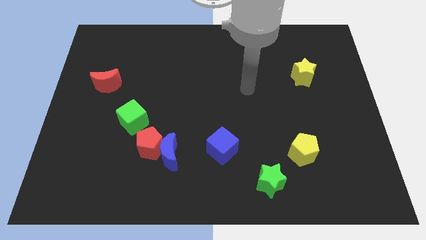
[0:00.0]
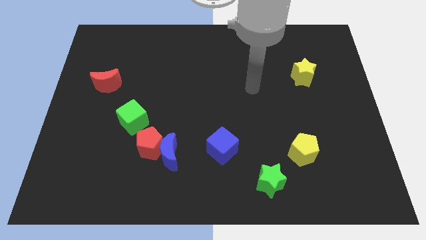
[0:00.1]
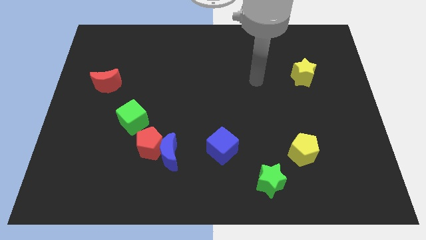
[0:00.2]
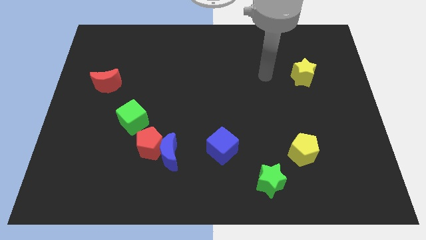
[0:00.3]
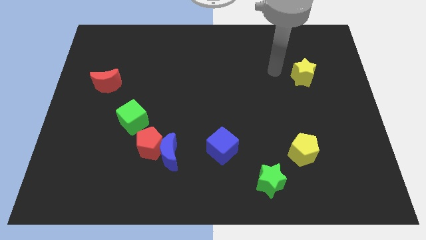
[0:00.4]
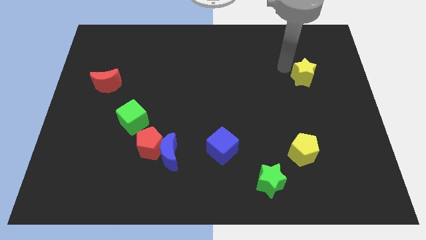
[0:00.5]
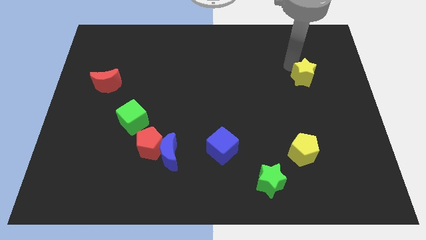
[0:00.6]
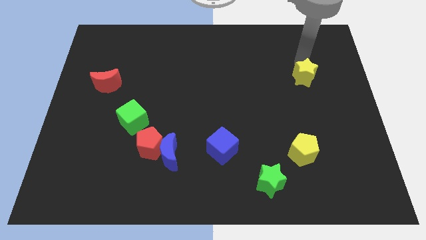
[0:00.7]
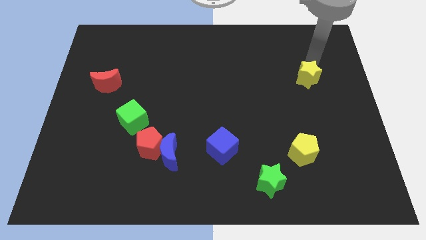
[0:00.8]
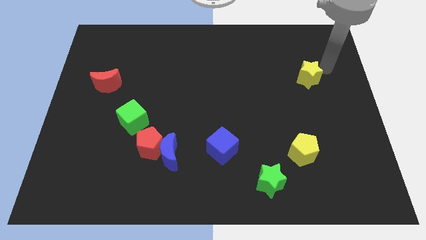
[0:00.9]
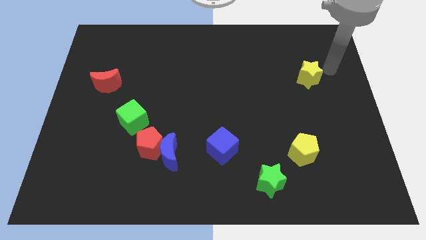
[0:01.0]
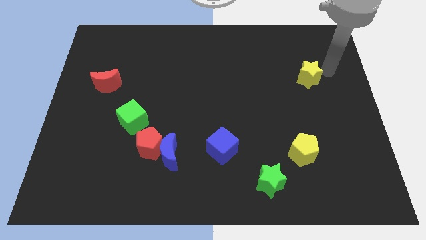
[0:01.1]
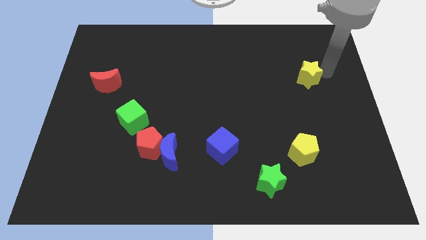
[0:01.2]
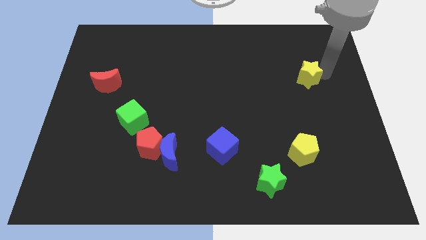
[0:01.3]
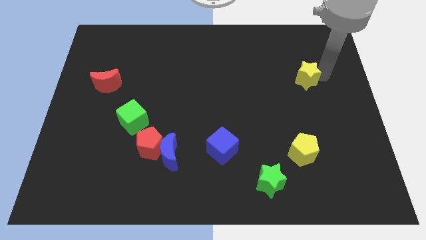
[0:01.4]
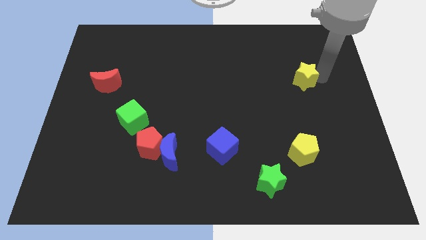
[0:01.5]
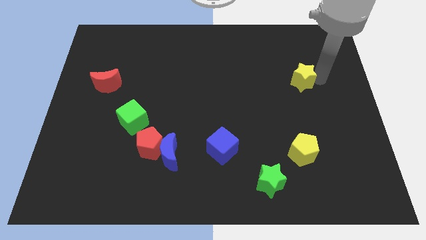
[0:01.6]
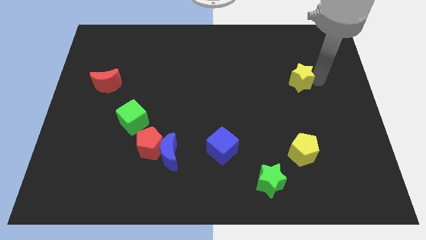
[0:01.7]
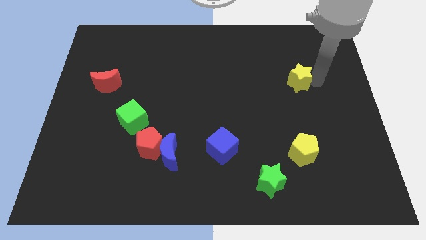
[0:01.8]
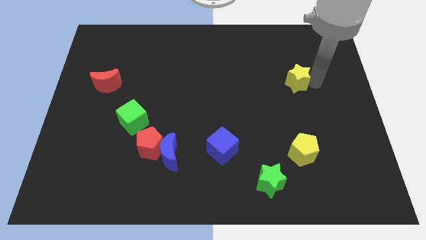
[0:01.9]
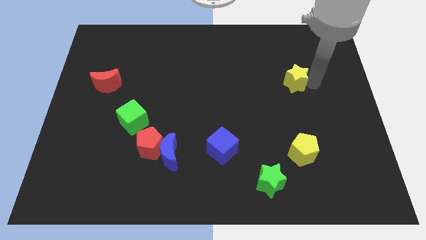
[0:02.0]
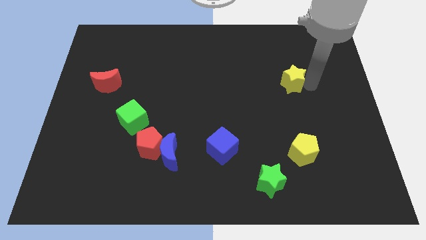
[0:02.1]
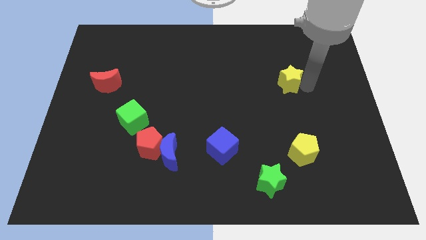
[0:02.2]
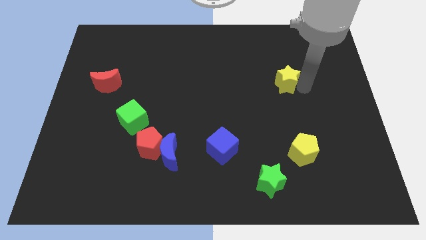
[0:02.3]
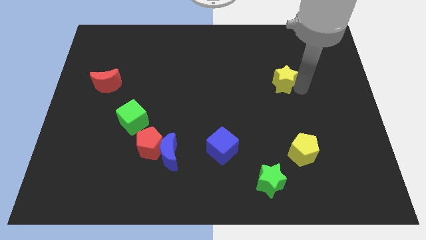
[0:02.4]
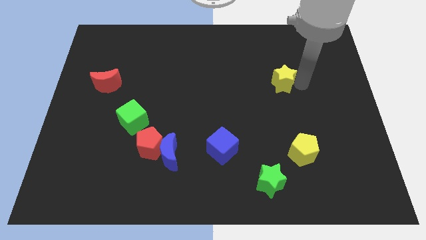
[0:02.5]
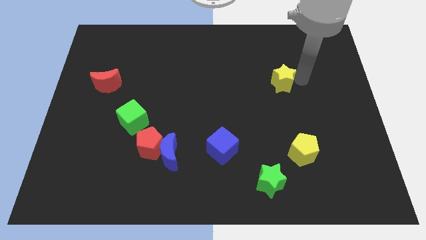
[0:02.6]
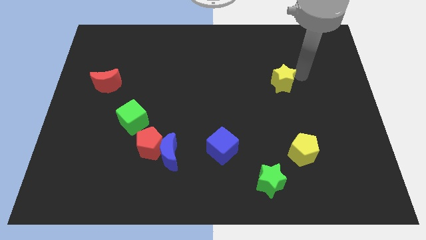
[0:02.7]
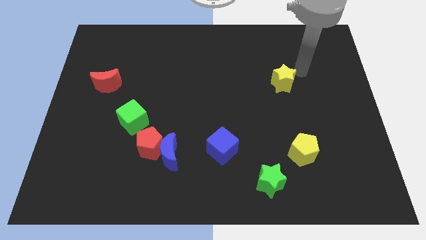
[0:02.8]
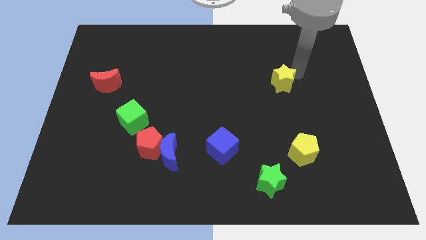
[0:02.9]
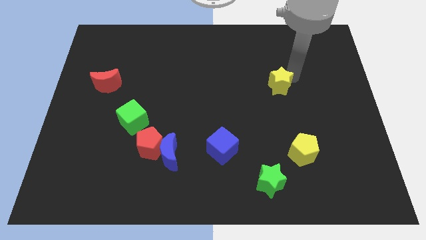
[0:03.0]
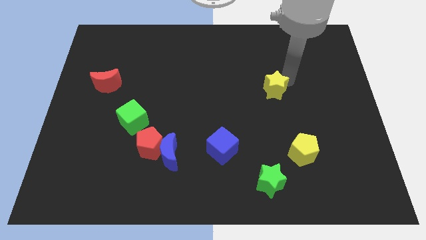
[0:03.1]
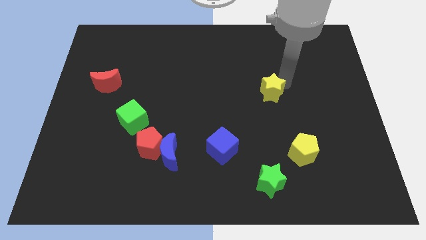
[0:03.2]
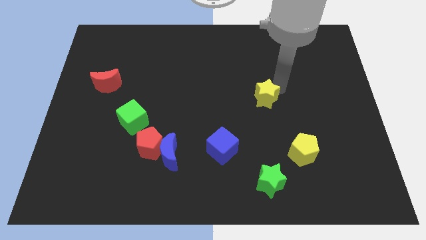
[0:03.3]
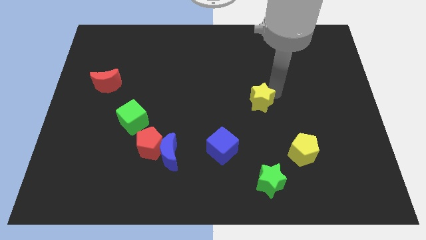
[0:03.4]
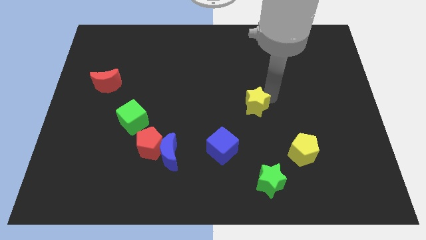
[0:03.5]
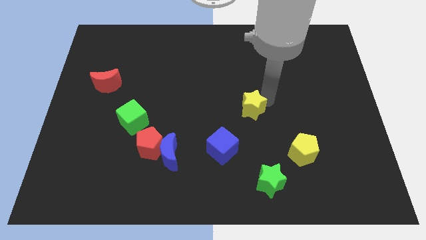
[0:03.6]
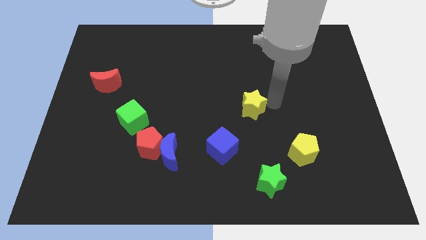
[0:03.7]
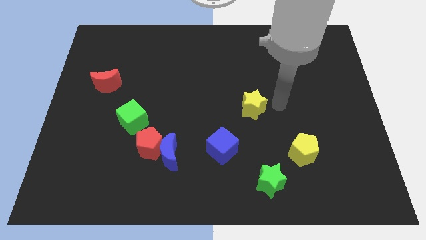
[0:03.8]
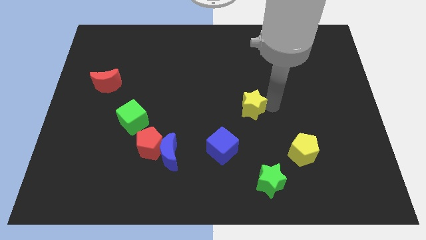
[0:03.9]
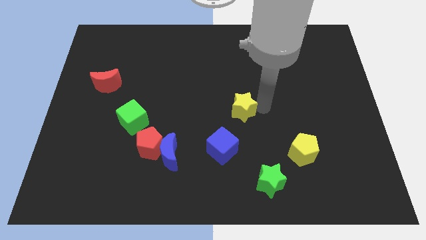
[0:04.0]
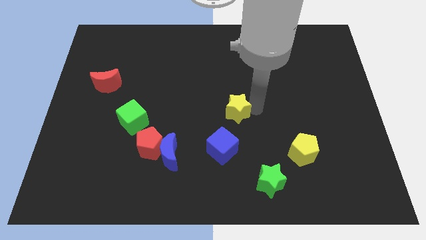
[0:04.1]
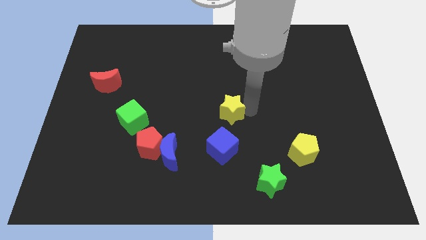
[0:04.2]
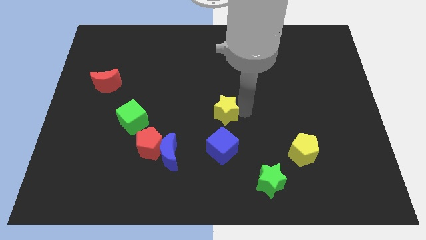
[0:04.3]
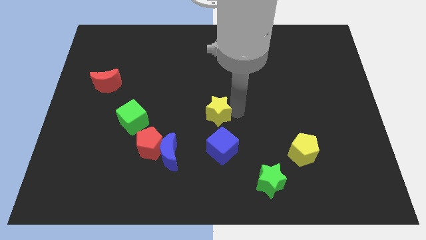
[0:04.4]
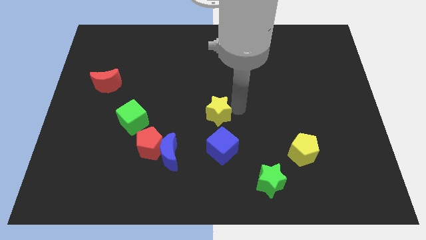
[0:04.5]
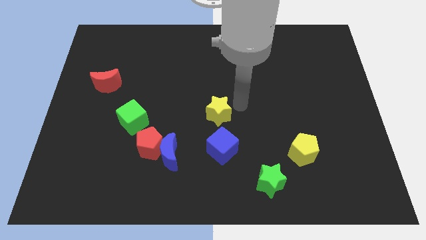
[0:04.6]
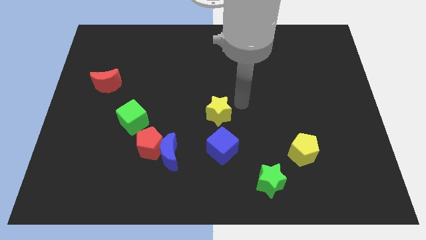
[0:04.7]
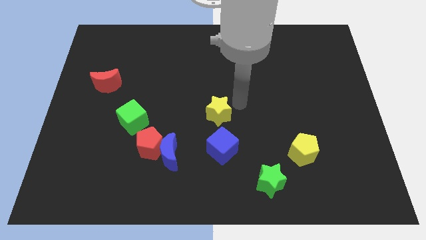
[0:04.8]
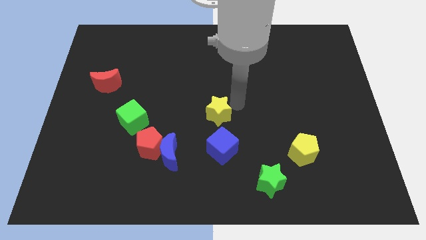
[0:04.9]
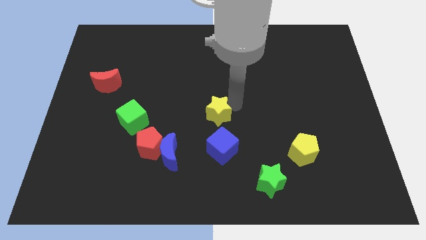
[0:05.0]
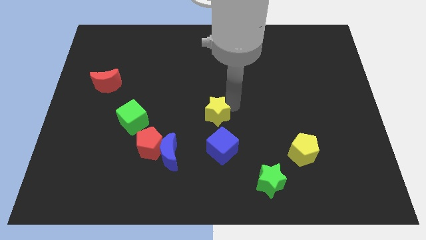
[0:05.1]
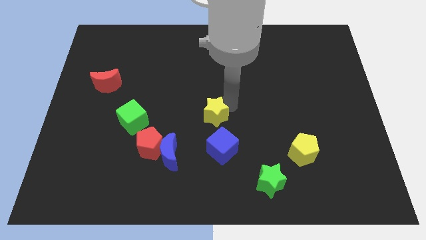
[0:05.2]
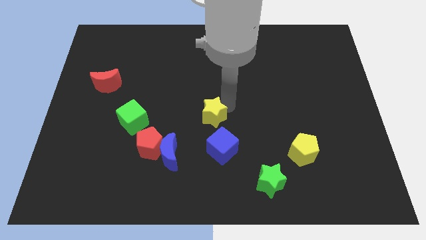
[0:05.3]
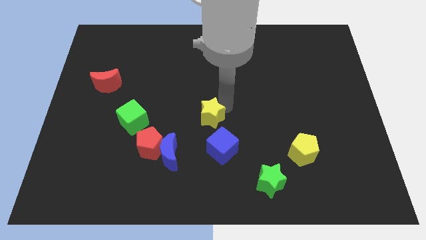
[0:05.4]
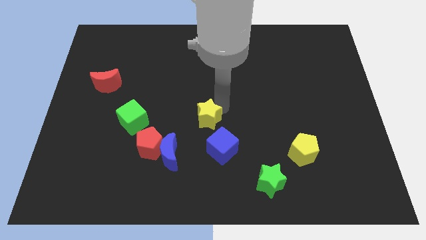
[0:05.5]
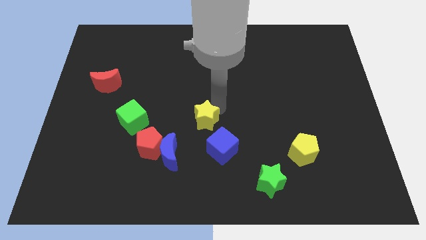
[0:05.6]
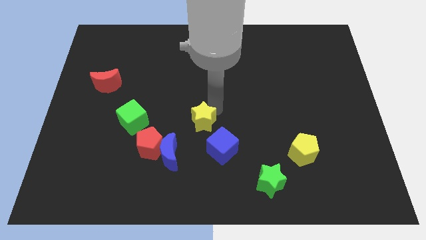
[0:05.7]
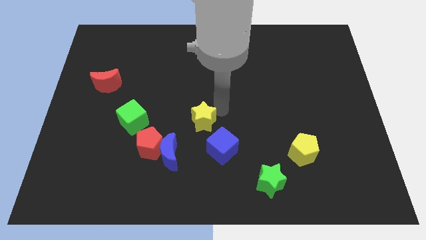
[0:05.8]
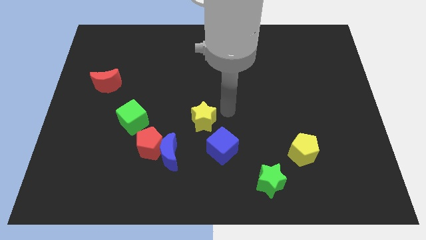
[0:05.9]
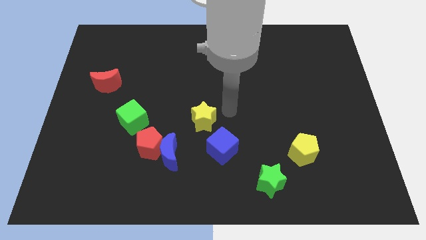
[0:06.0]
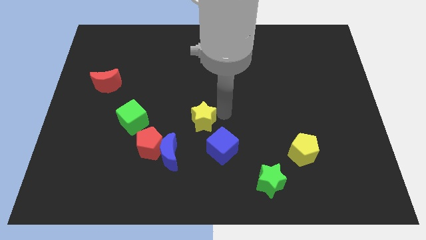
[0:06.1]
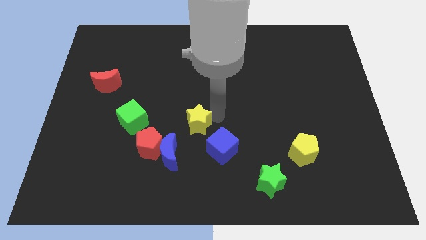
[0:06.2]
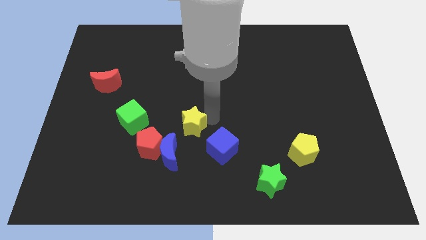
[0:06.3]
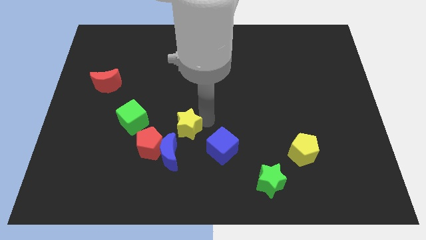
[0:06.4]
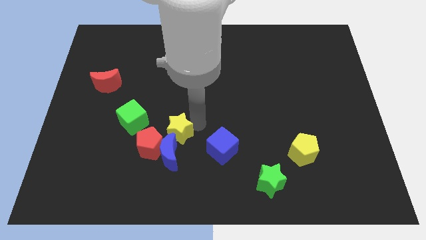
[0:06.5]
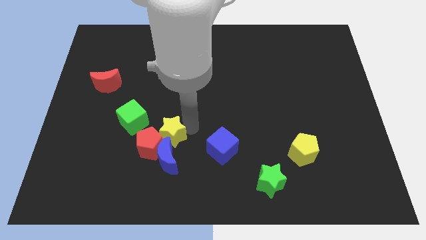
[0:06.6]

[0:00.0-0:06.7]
slide the yellow star close to the red pentagon
